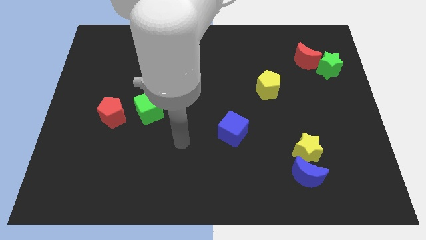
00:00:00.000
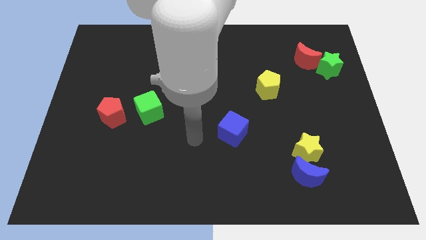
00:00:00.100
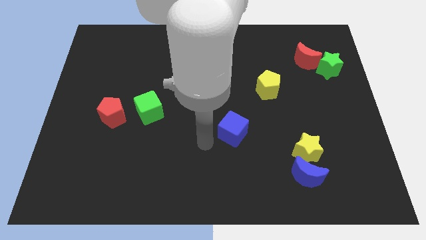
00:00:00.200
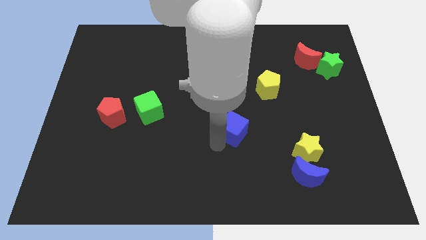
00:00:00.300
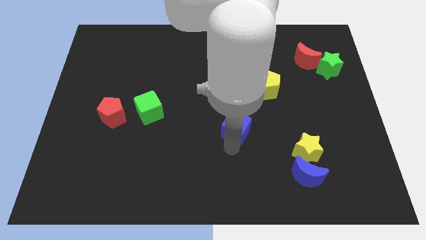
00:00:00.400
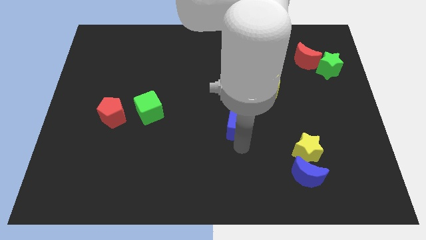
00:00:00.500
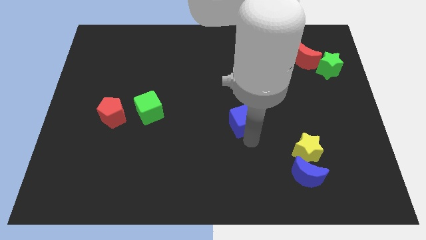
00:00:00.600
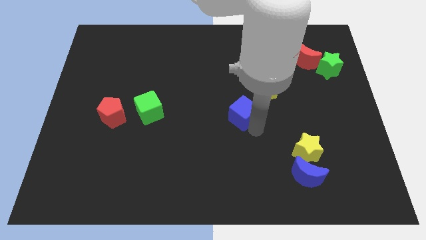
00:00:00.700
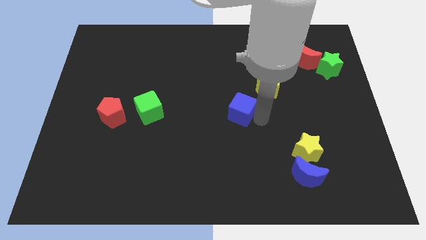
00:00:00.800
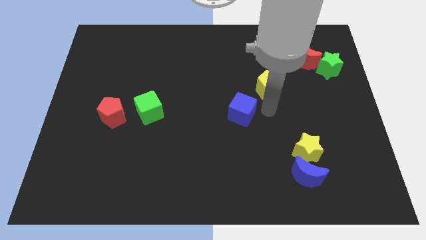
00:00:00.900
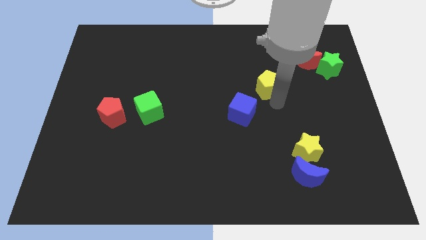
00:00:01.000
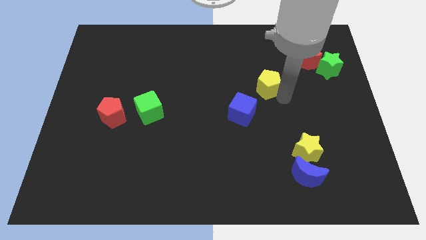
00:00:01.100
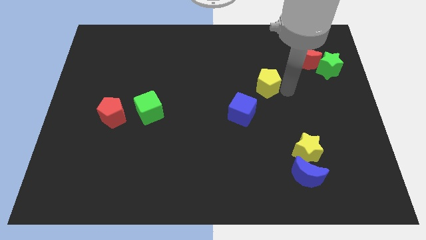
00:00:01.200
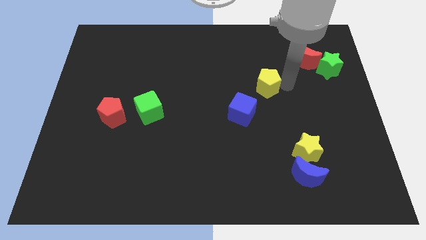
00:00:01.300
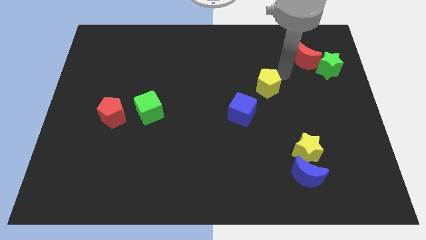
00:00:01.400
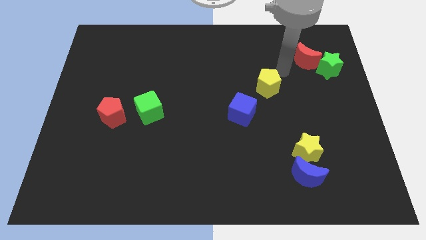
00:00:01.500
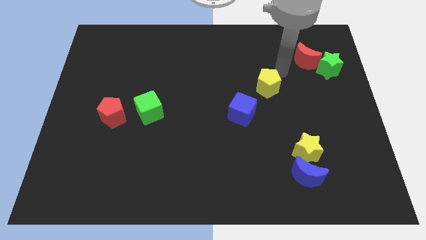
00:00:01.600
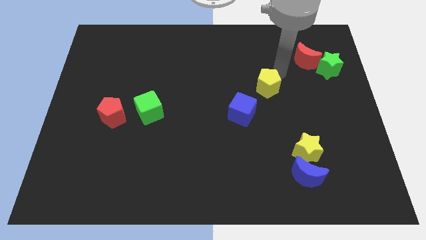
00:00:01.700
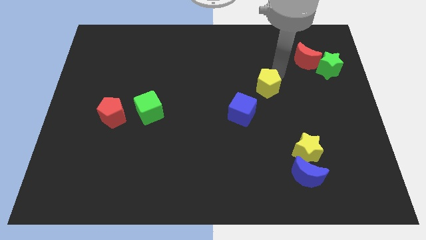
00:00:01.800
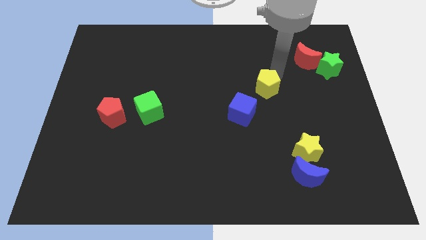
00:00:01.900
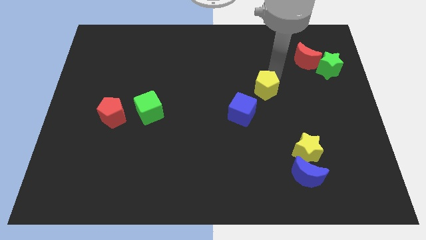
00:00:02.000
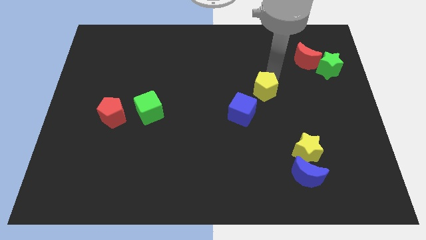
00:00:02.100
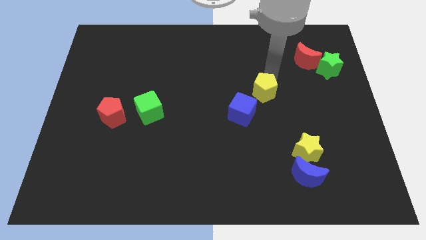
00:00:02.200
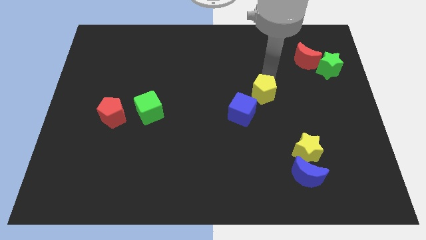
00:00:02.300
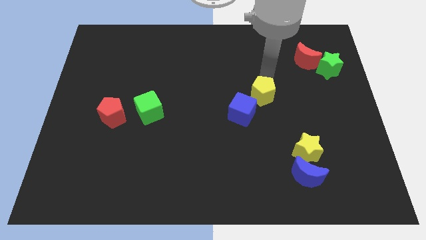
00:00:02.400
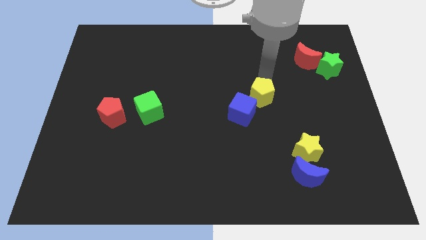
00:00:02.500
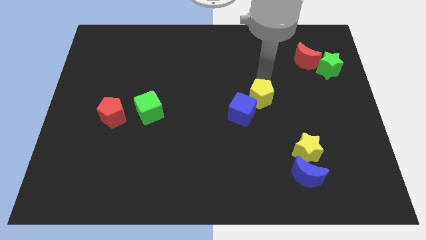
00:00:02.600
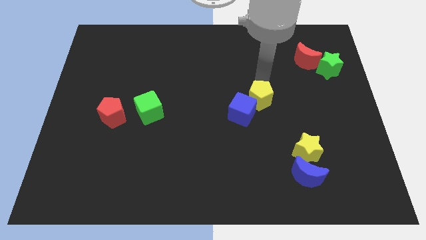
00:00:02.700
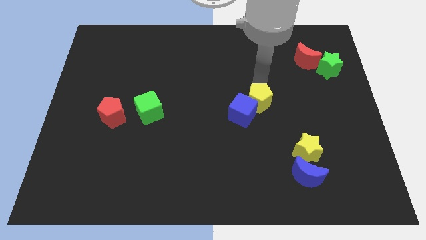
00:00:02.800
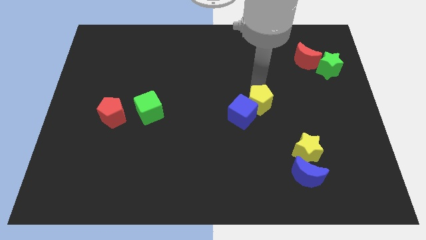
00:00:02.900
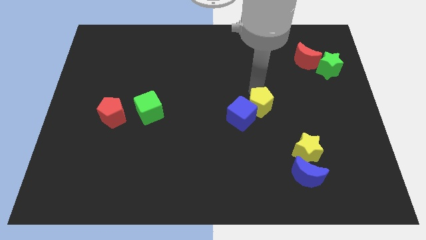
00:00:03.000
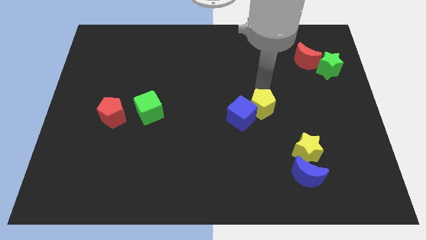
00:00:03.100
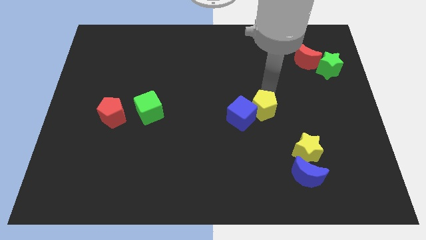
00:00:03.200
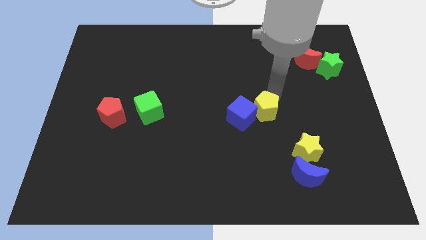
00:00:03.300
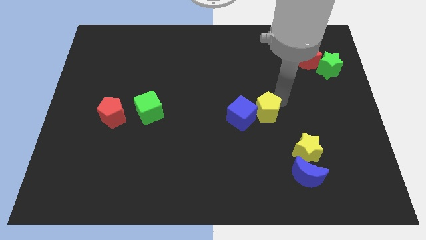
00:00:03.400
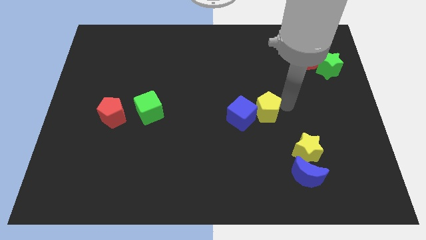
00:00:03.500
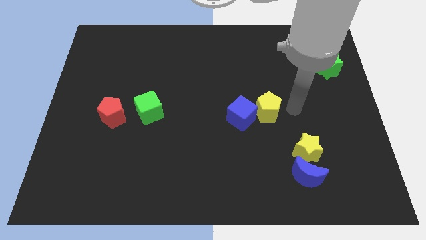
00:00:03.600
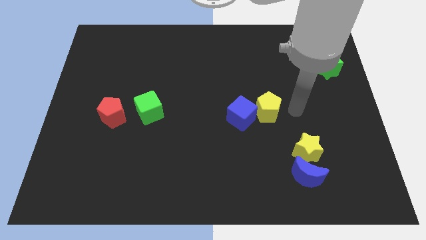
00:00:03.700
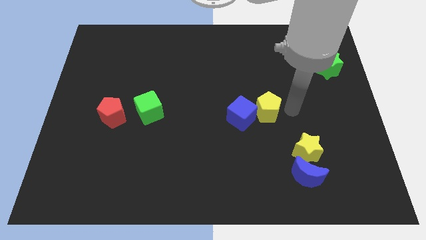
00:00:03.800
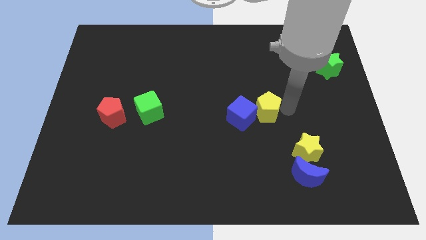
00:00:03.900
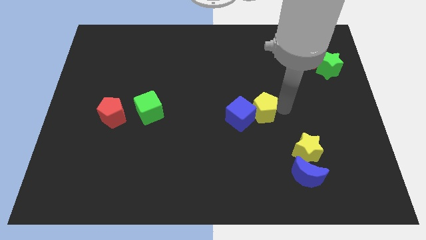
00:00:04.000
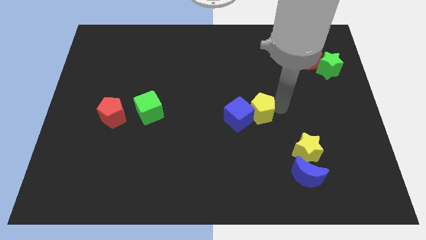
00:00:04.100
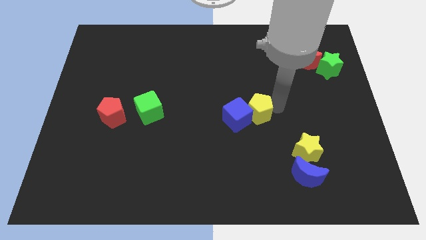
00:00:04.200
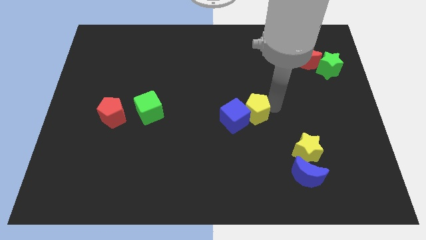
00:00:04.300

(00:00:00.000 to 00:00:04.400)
slightly move the yellow pentagon diagonally downwards and left

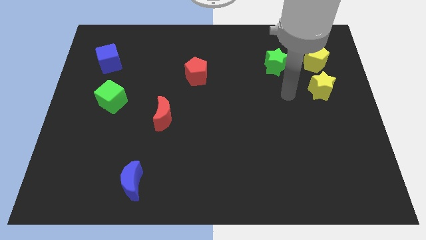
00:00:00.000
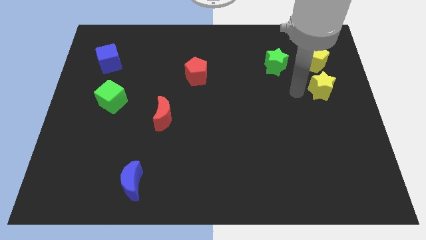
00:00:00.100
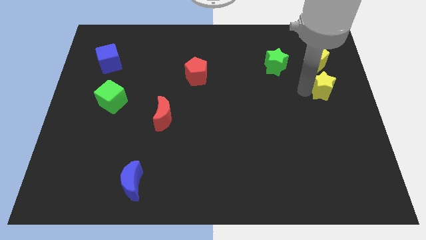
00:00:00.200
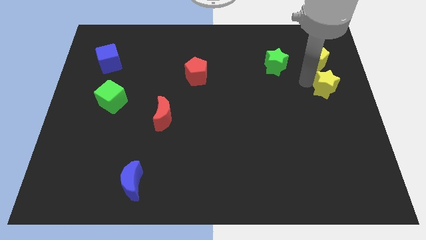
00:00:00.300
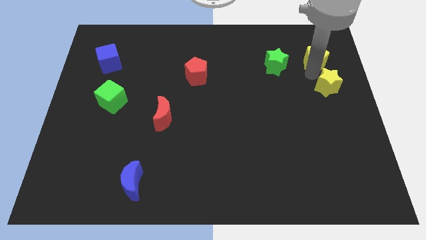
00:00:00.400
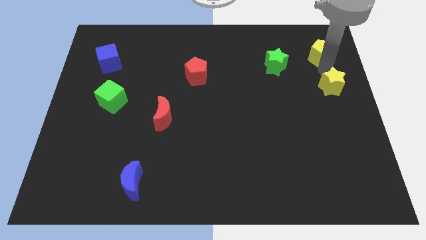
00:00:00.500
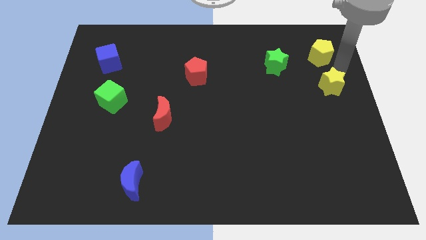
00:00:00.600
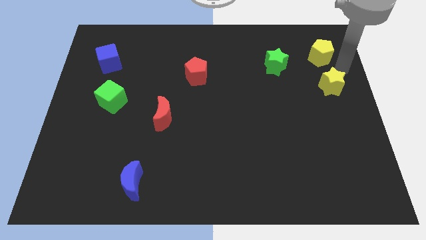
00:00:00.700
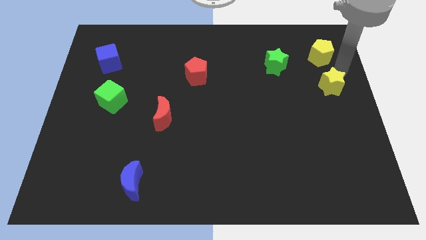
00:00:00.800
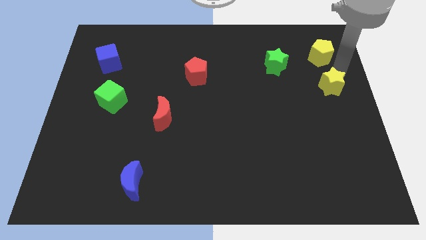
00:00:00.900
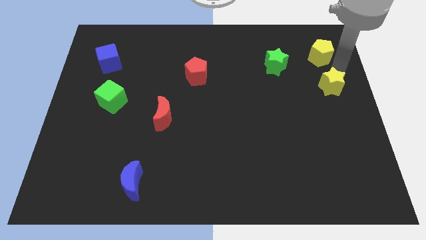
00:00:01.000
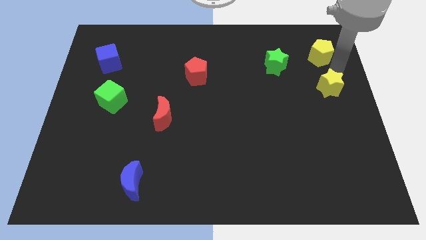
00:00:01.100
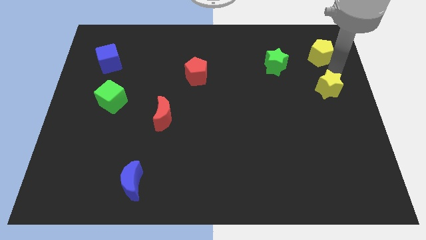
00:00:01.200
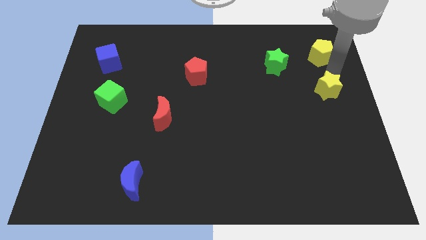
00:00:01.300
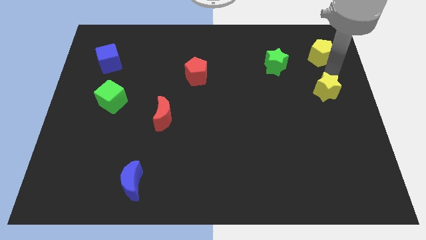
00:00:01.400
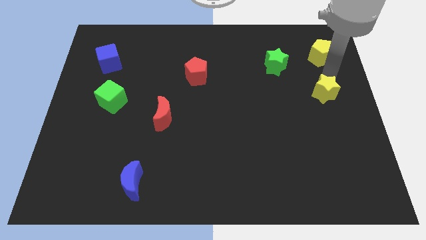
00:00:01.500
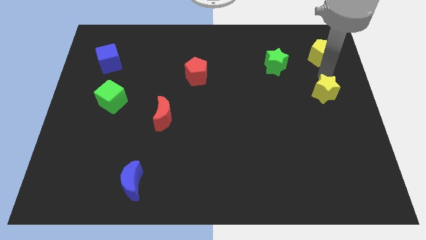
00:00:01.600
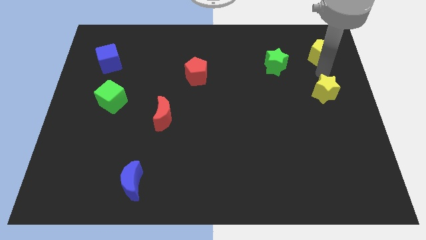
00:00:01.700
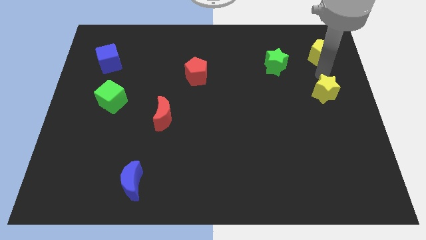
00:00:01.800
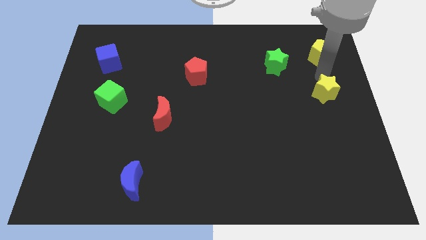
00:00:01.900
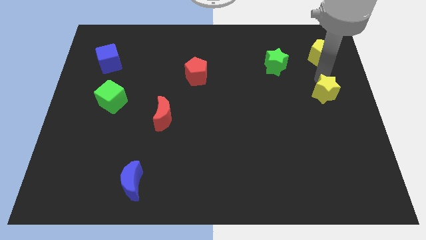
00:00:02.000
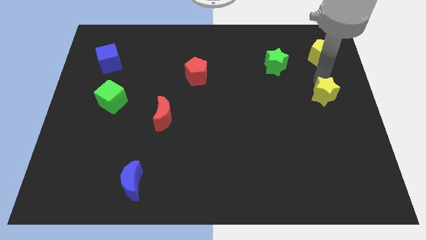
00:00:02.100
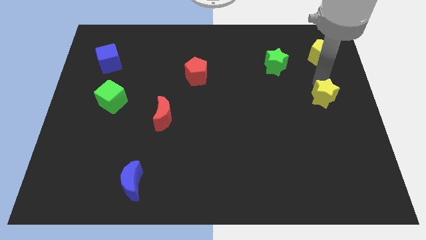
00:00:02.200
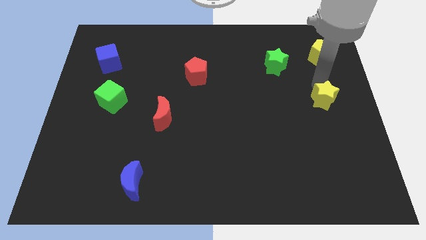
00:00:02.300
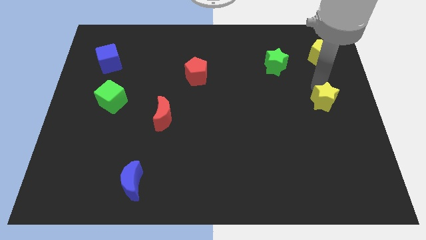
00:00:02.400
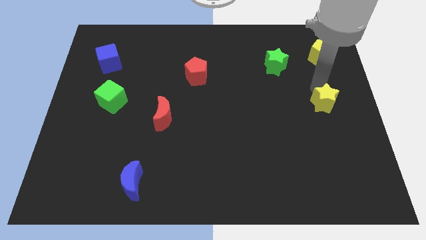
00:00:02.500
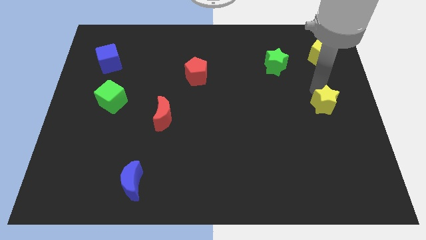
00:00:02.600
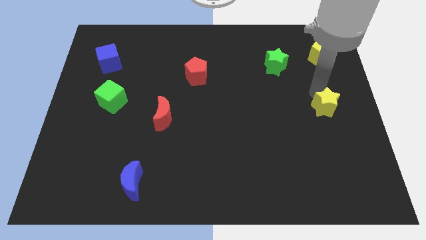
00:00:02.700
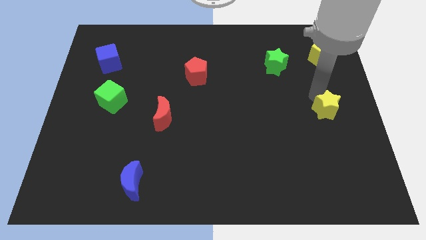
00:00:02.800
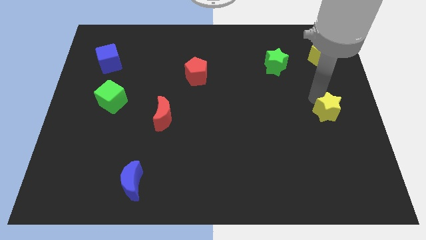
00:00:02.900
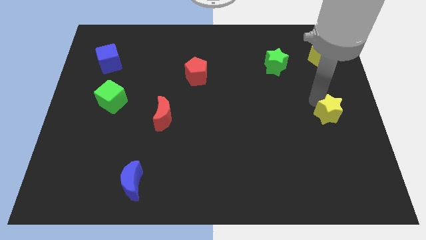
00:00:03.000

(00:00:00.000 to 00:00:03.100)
push the yellow star a bit downwards

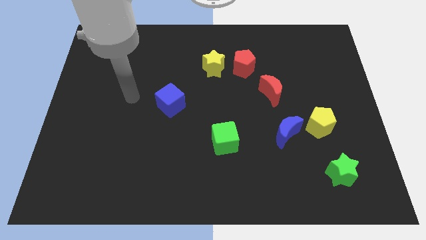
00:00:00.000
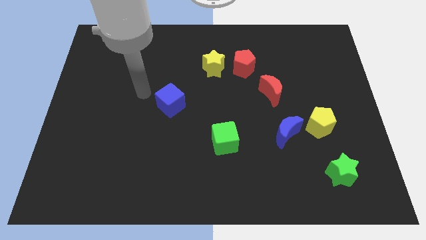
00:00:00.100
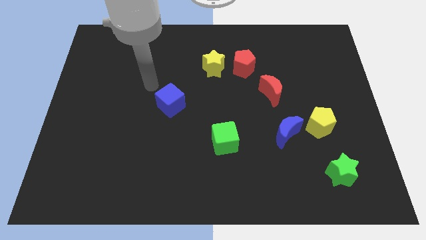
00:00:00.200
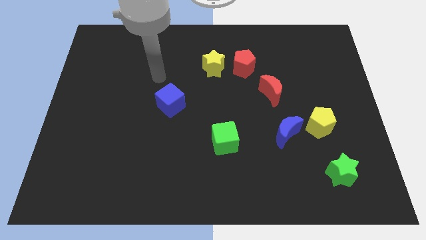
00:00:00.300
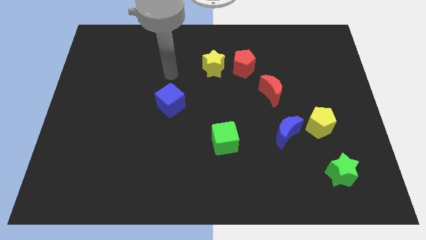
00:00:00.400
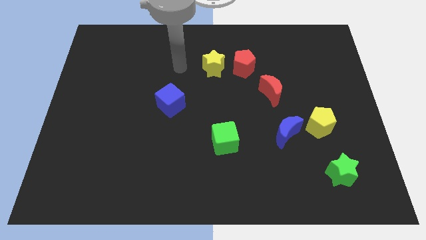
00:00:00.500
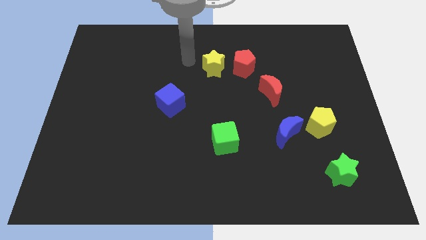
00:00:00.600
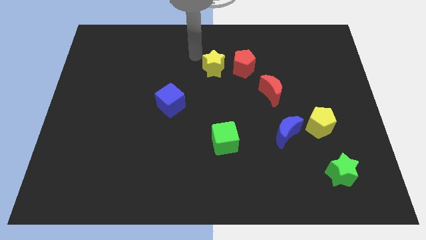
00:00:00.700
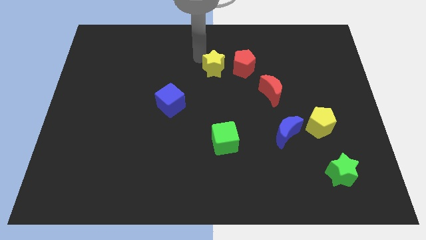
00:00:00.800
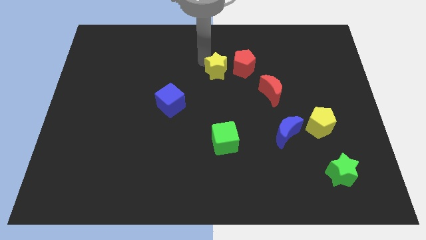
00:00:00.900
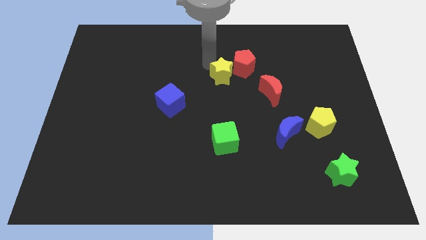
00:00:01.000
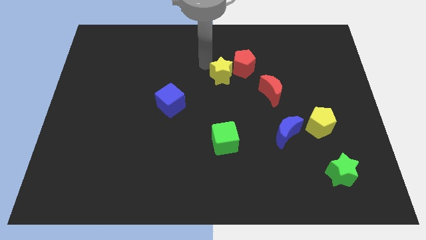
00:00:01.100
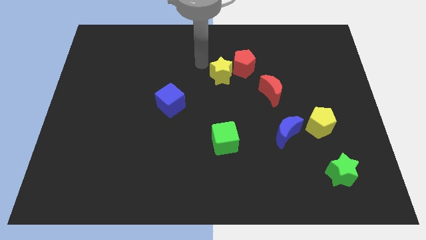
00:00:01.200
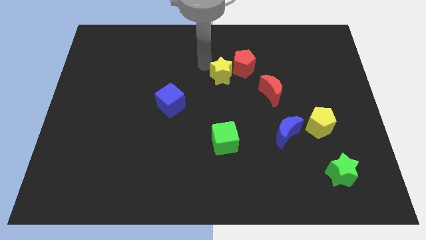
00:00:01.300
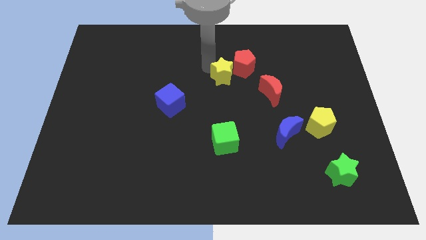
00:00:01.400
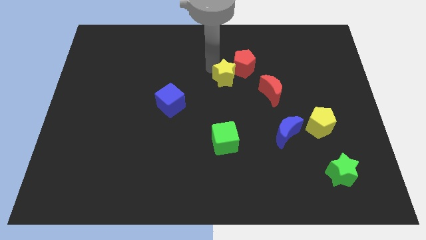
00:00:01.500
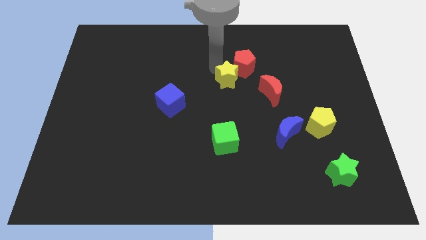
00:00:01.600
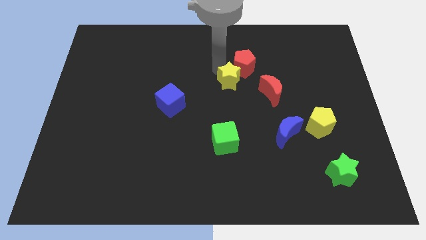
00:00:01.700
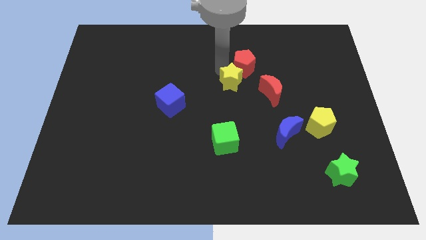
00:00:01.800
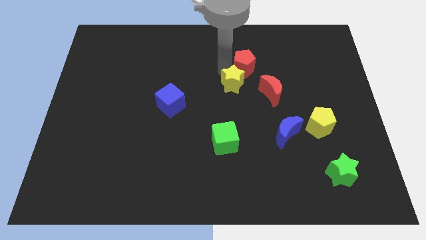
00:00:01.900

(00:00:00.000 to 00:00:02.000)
slightly slide the yellow star down and then to the right
